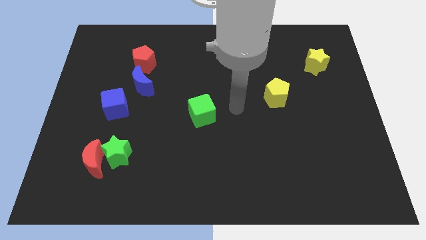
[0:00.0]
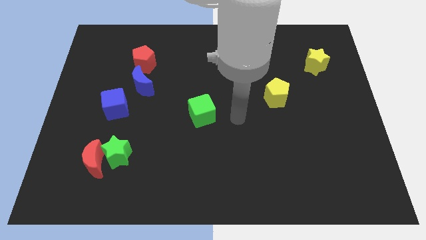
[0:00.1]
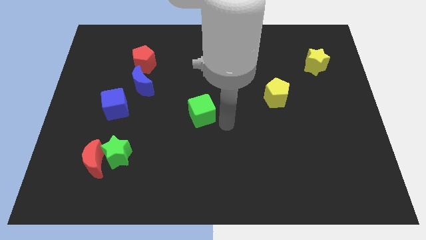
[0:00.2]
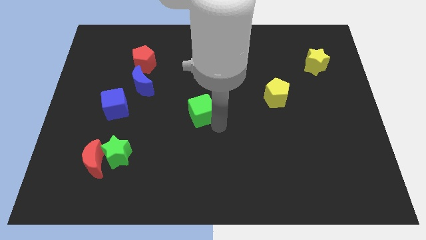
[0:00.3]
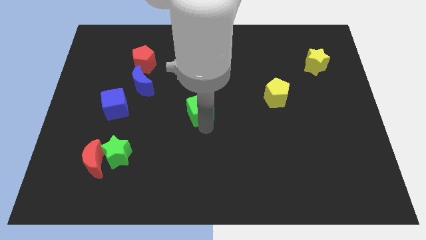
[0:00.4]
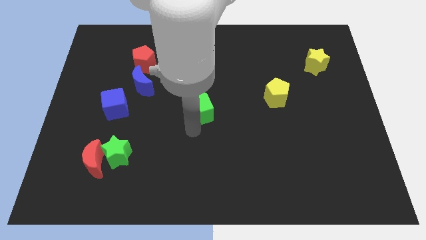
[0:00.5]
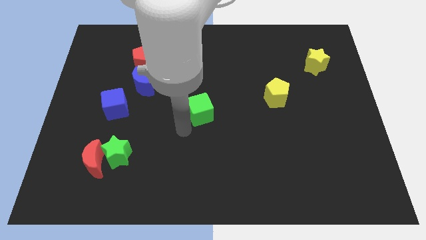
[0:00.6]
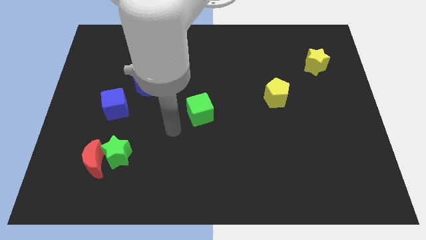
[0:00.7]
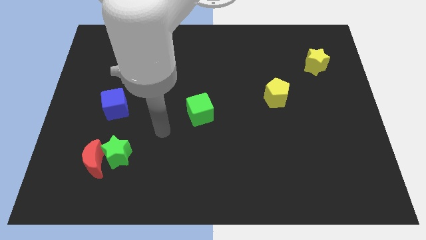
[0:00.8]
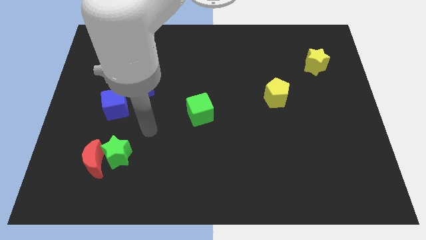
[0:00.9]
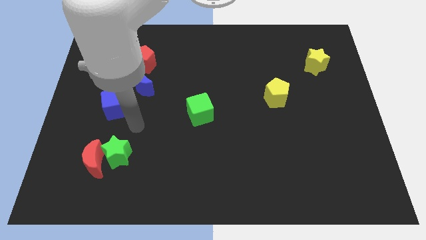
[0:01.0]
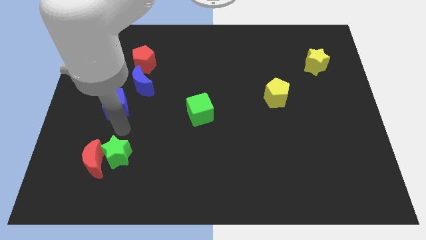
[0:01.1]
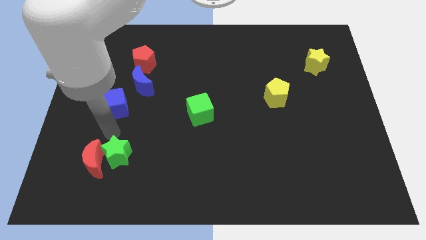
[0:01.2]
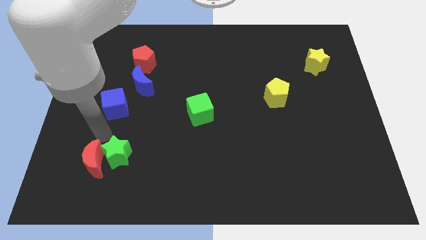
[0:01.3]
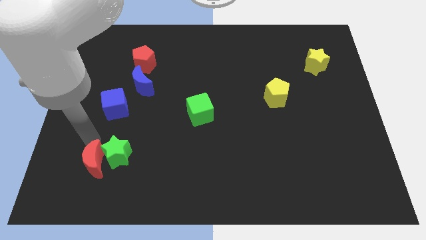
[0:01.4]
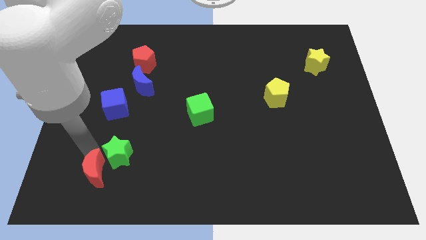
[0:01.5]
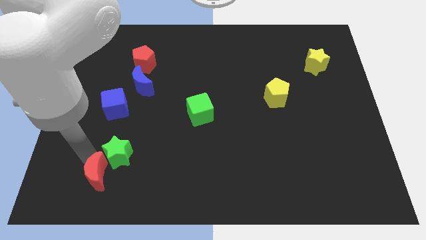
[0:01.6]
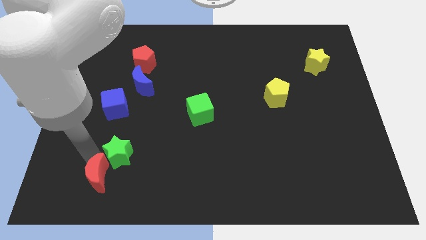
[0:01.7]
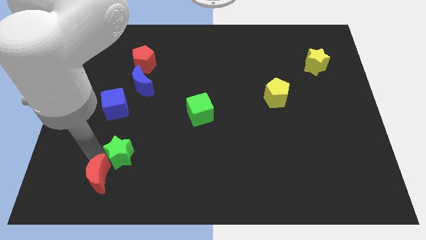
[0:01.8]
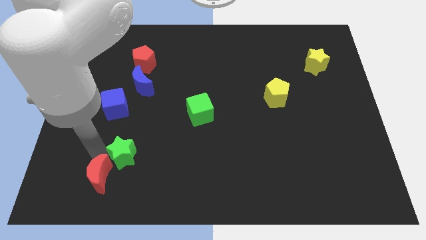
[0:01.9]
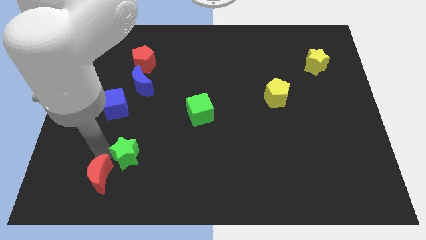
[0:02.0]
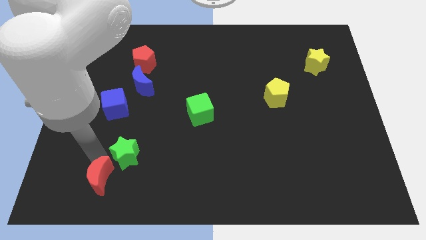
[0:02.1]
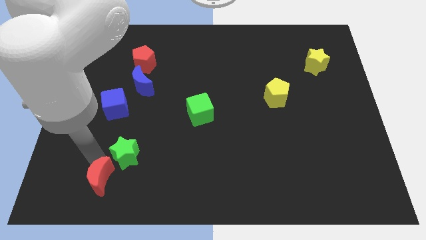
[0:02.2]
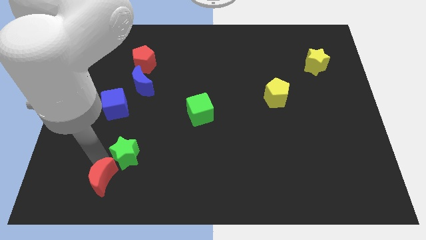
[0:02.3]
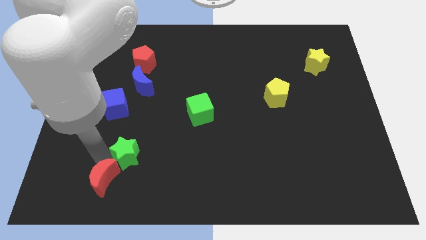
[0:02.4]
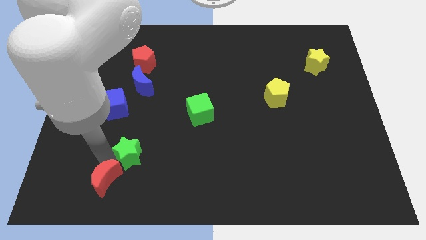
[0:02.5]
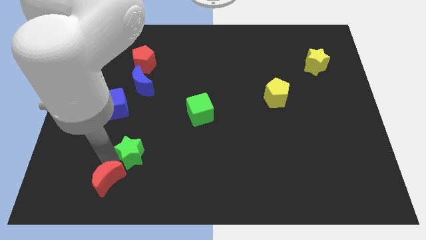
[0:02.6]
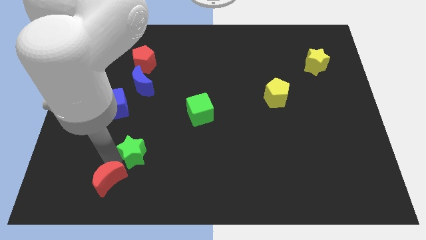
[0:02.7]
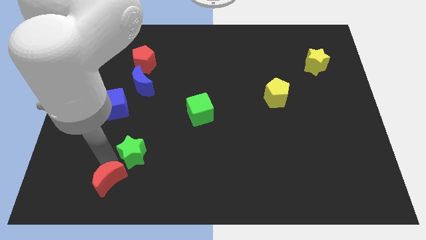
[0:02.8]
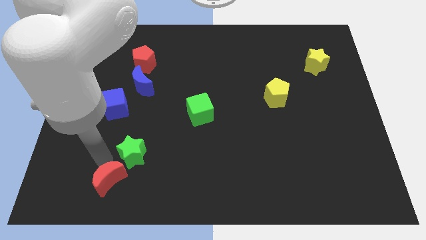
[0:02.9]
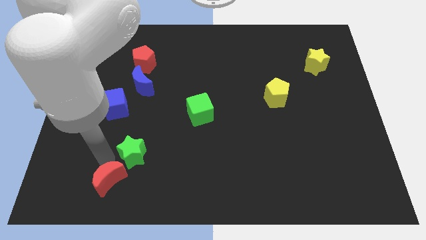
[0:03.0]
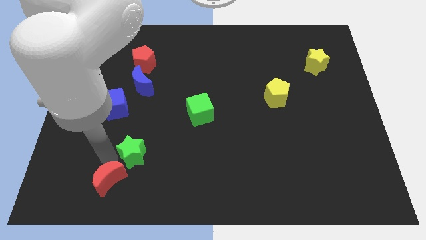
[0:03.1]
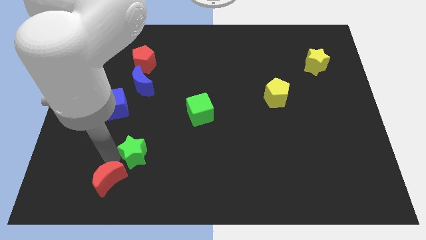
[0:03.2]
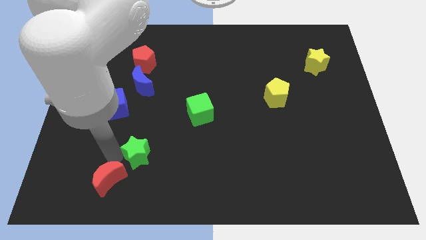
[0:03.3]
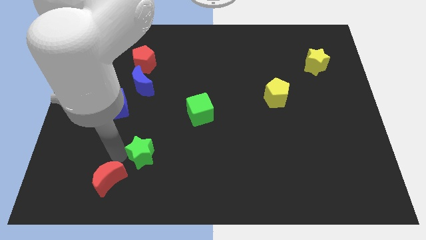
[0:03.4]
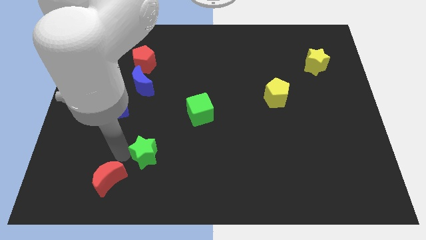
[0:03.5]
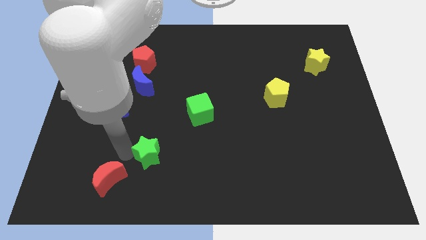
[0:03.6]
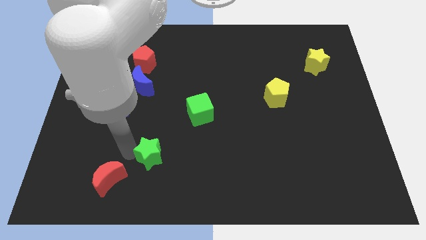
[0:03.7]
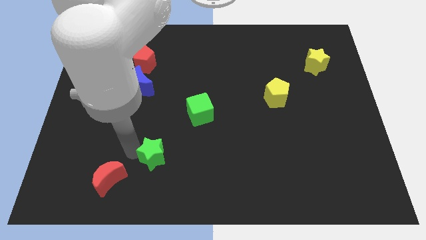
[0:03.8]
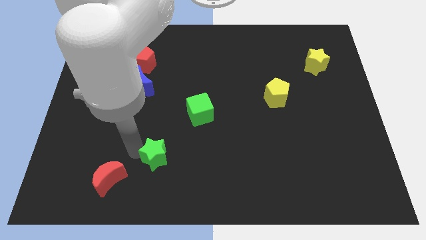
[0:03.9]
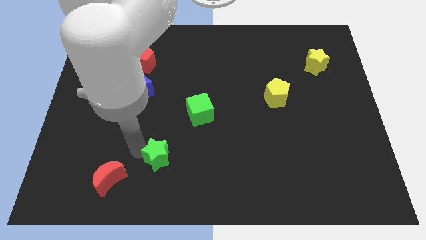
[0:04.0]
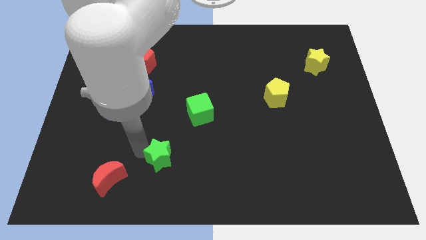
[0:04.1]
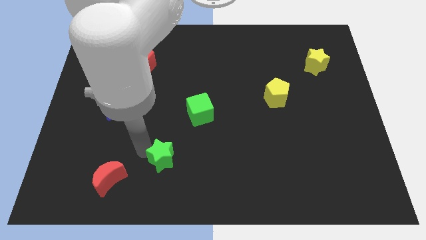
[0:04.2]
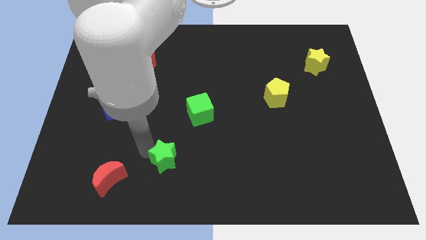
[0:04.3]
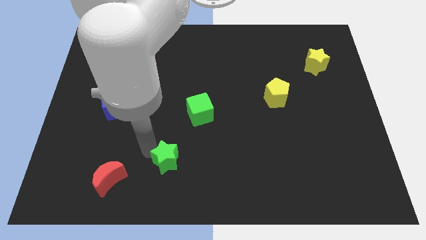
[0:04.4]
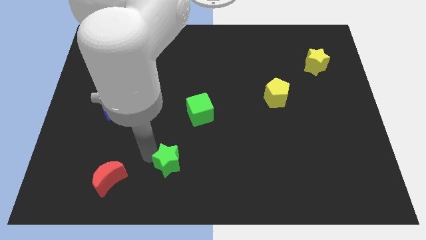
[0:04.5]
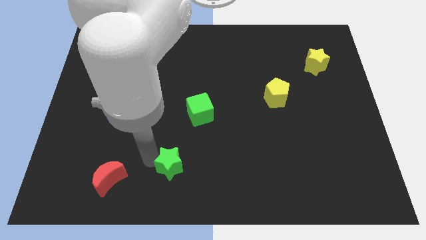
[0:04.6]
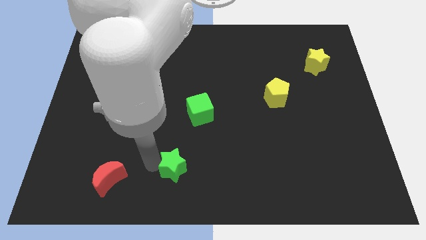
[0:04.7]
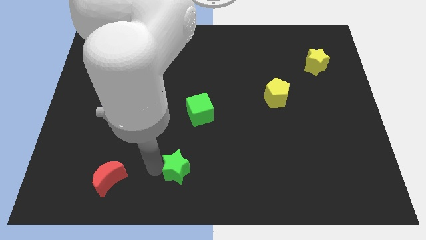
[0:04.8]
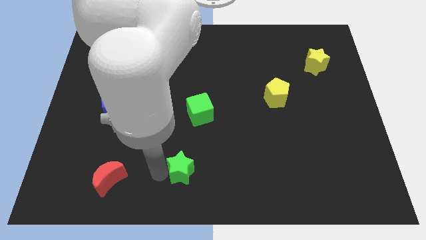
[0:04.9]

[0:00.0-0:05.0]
move the green star below the green cube

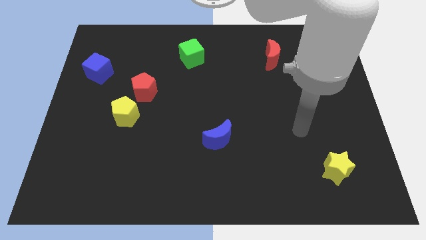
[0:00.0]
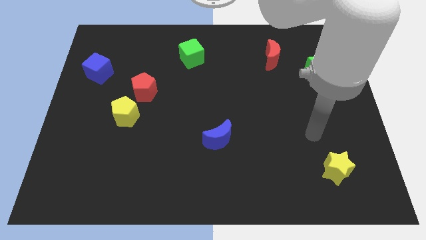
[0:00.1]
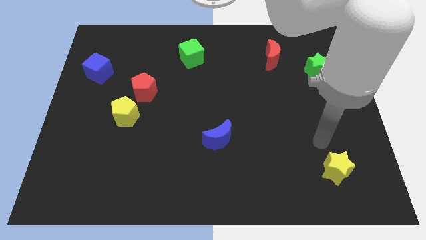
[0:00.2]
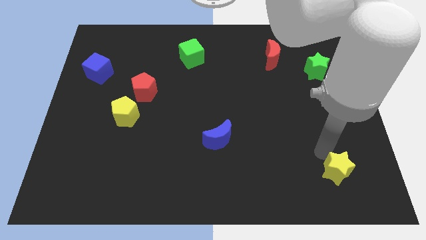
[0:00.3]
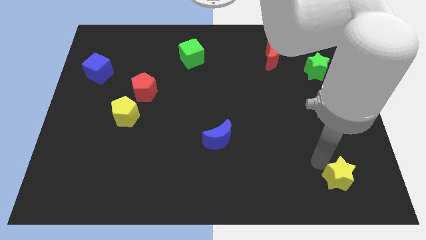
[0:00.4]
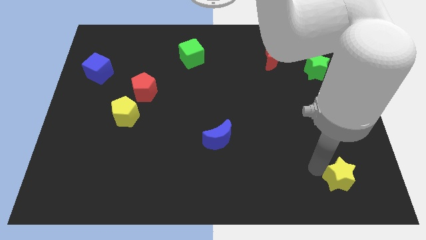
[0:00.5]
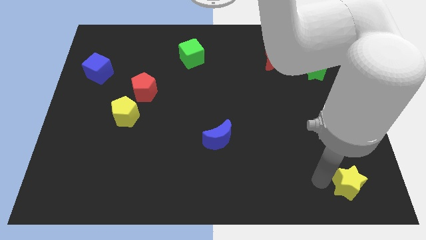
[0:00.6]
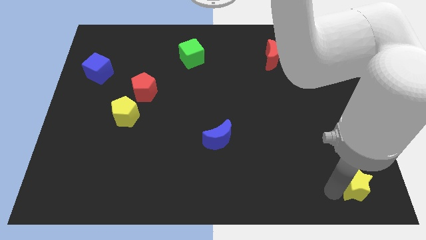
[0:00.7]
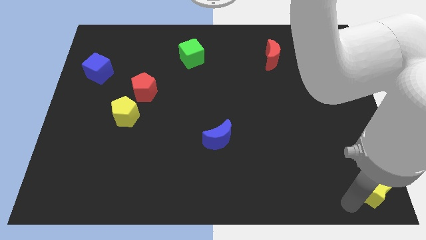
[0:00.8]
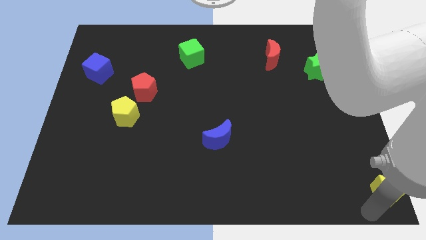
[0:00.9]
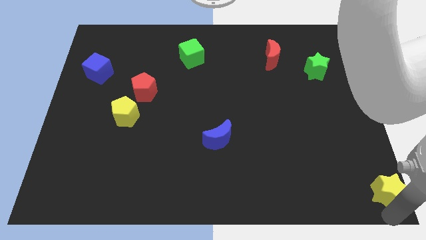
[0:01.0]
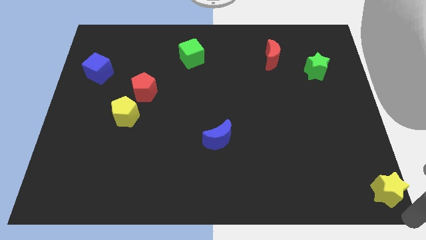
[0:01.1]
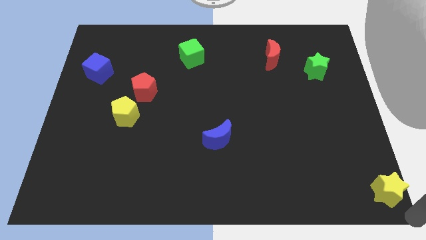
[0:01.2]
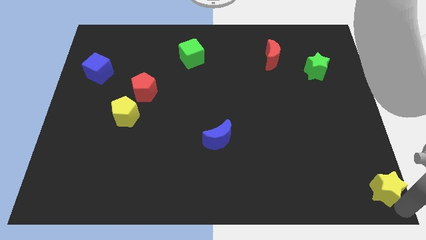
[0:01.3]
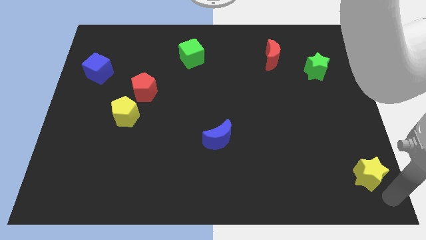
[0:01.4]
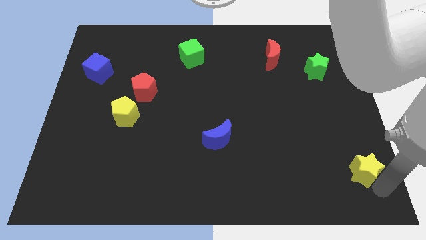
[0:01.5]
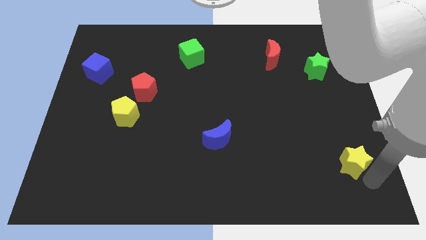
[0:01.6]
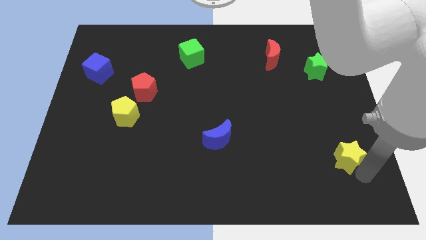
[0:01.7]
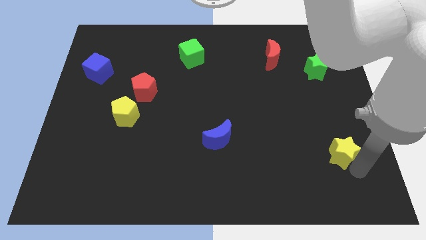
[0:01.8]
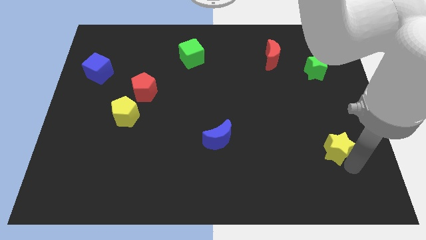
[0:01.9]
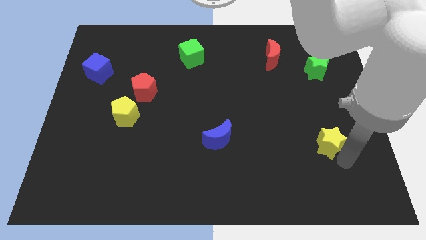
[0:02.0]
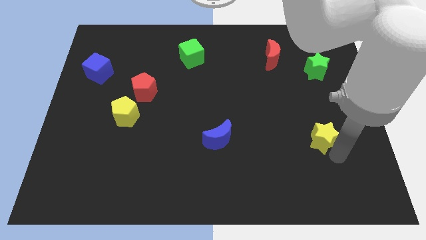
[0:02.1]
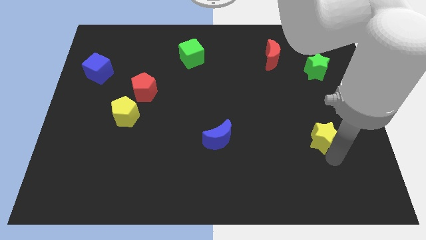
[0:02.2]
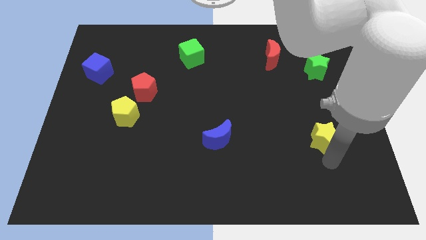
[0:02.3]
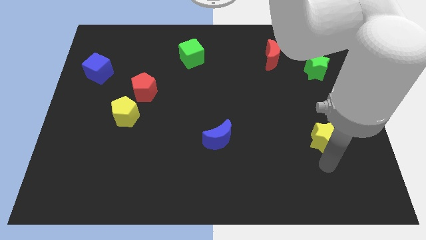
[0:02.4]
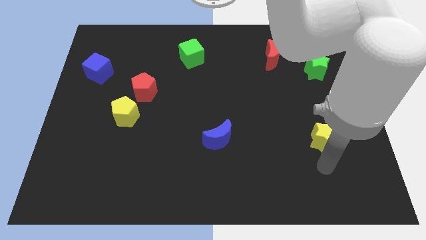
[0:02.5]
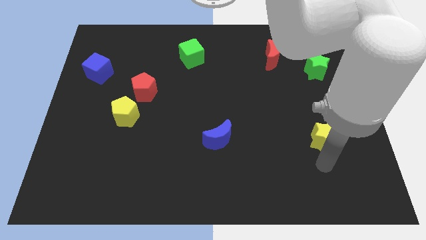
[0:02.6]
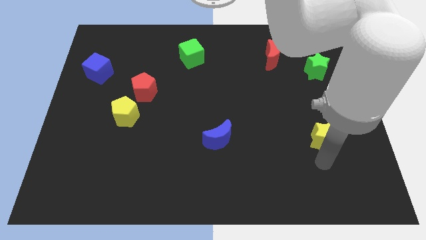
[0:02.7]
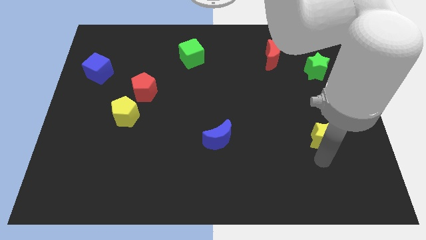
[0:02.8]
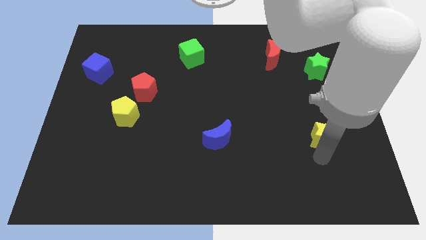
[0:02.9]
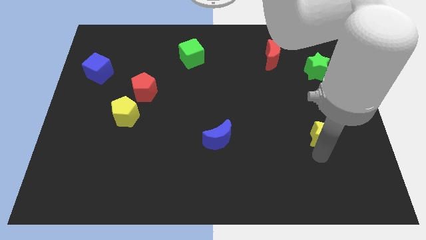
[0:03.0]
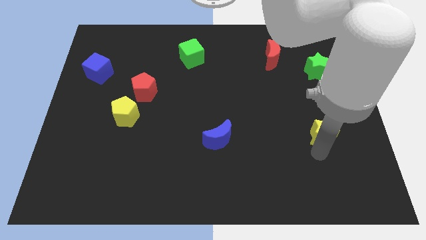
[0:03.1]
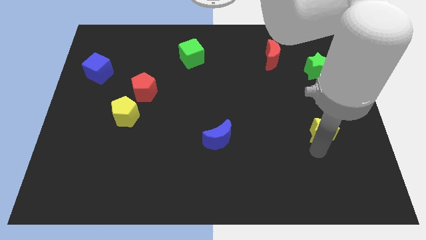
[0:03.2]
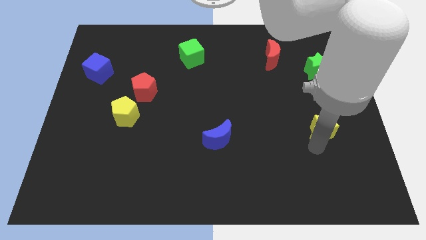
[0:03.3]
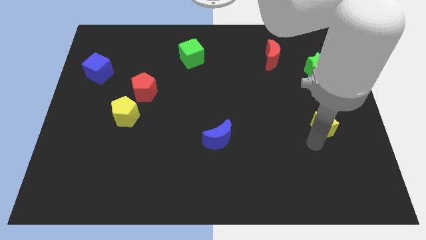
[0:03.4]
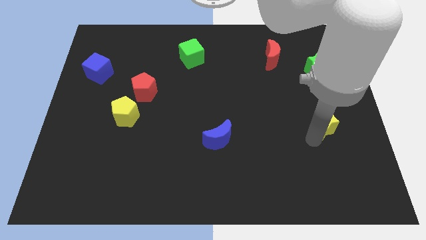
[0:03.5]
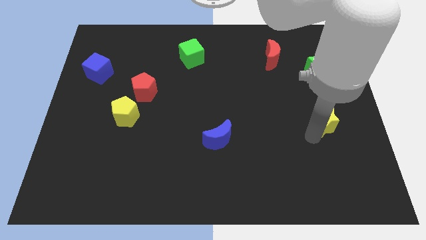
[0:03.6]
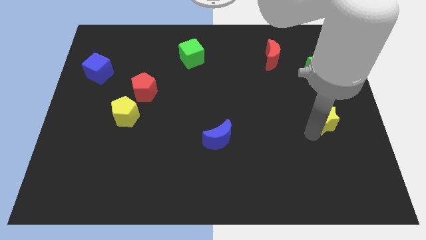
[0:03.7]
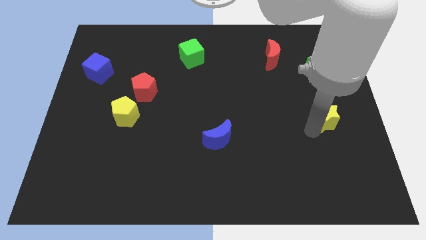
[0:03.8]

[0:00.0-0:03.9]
push the yellow star below the green star
